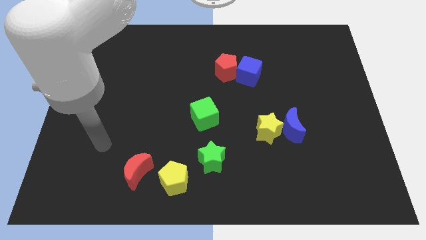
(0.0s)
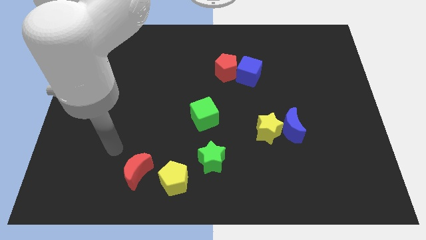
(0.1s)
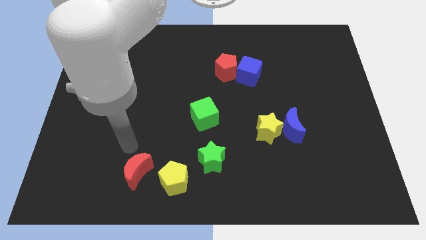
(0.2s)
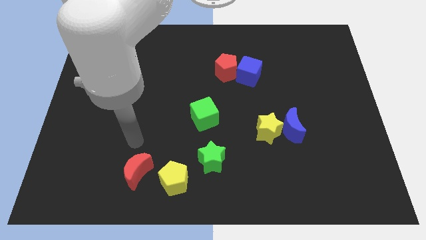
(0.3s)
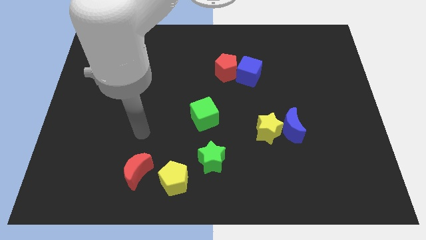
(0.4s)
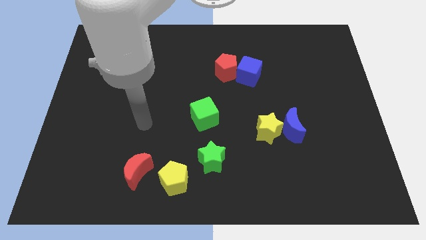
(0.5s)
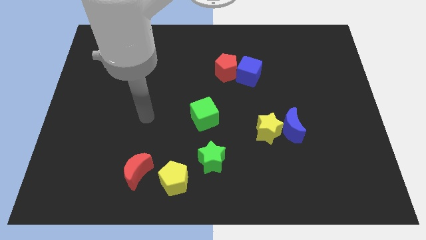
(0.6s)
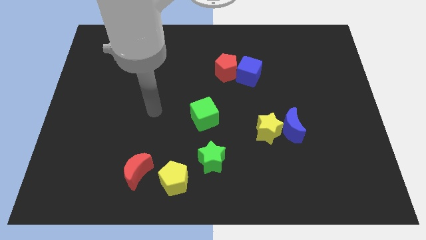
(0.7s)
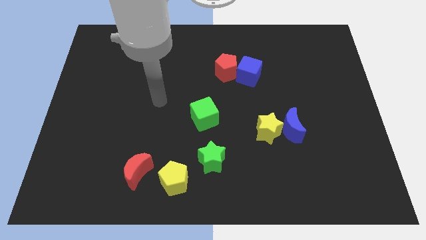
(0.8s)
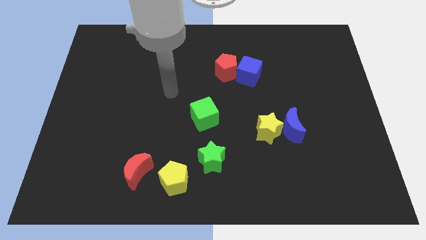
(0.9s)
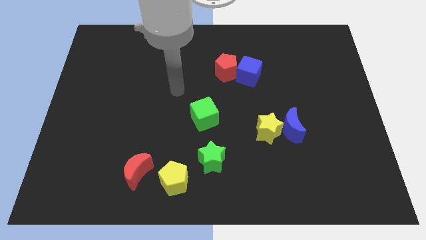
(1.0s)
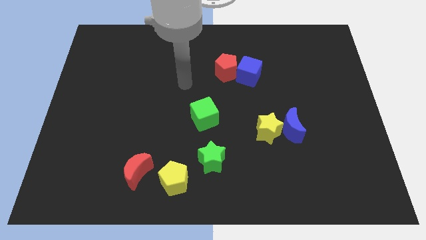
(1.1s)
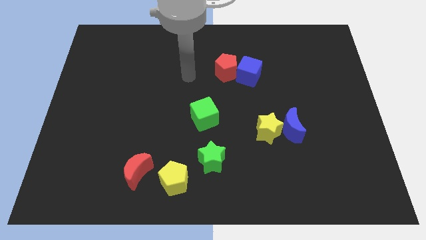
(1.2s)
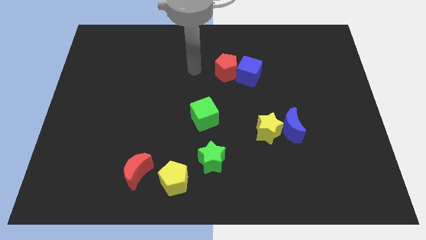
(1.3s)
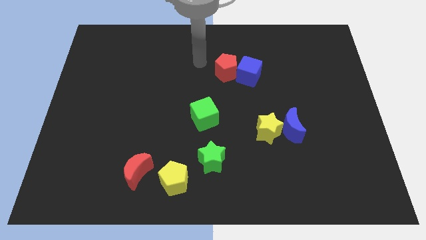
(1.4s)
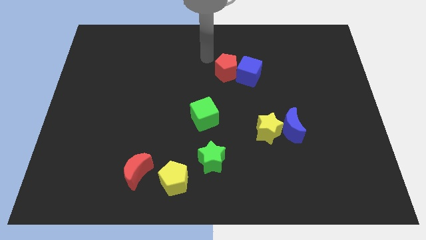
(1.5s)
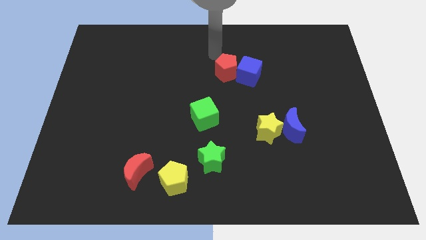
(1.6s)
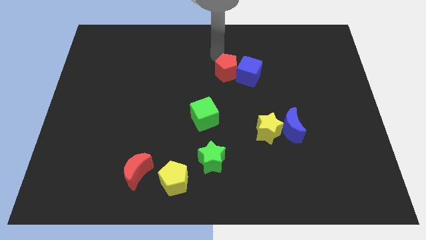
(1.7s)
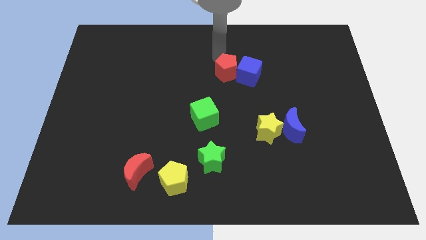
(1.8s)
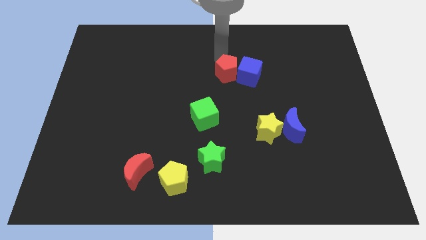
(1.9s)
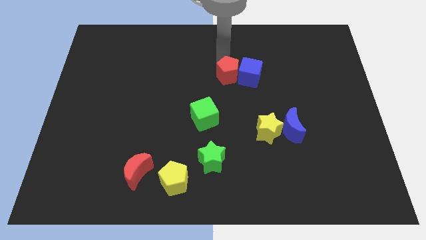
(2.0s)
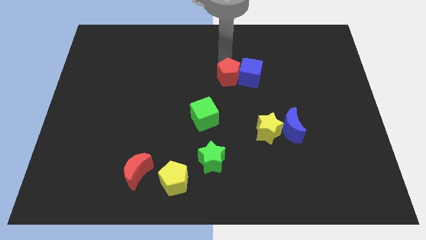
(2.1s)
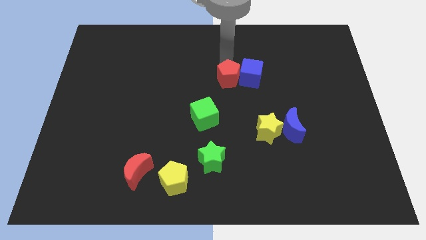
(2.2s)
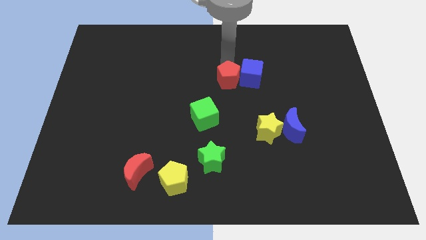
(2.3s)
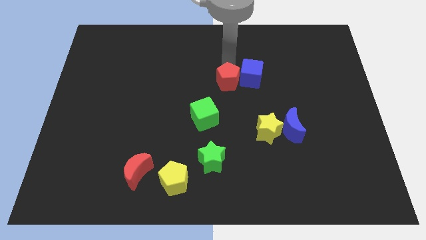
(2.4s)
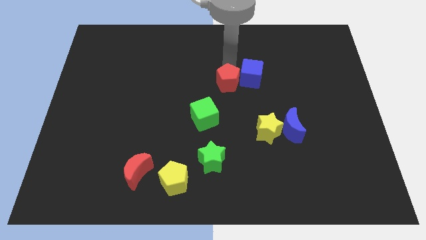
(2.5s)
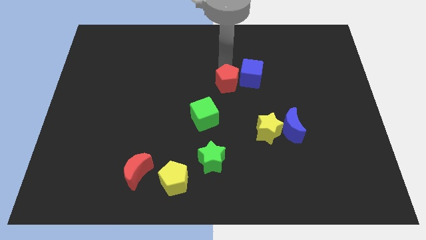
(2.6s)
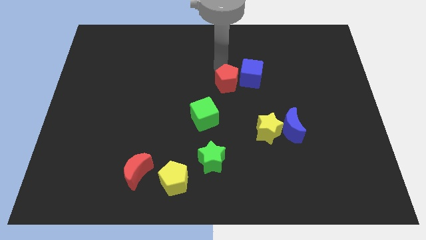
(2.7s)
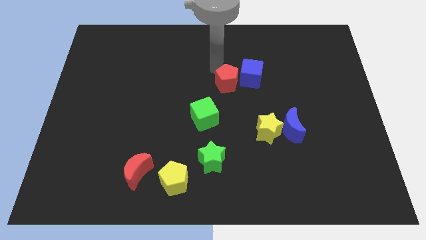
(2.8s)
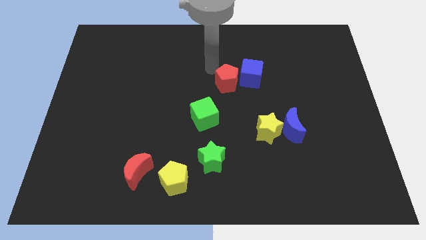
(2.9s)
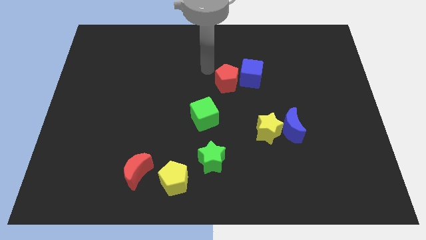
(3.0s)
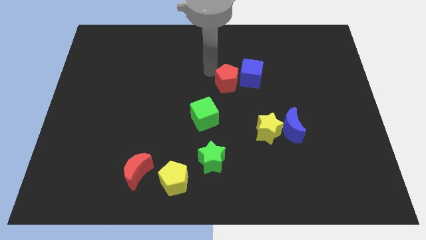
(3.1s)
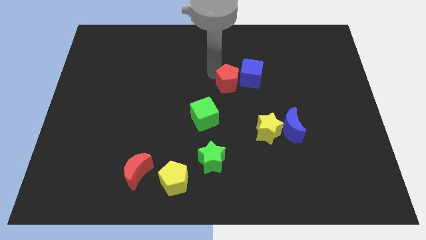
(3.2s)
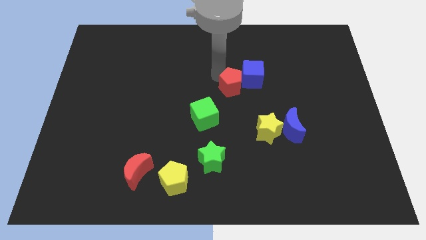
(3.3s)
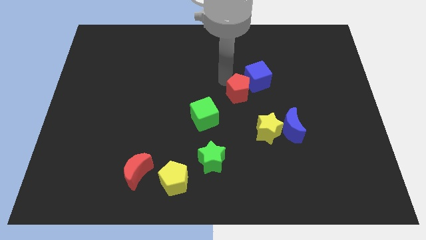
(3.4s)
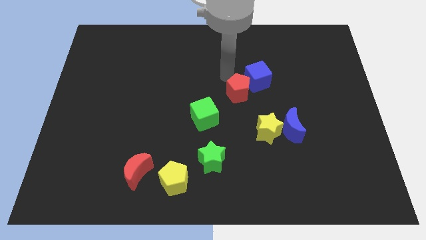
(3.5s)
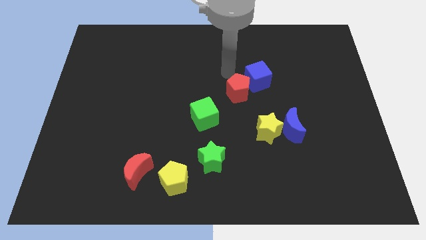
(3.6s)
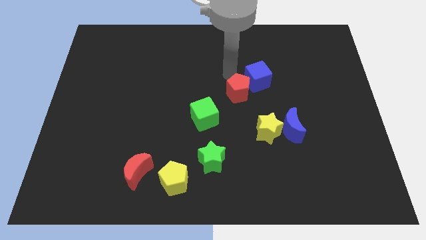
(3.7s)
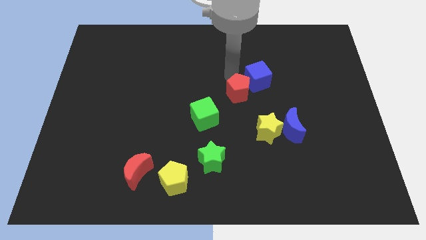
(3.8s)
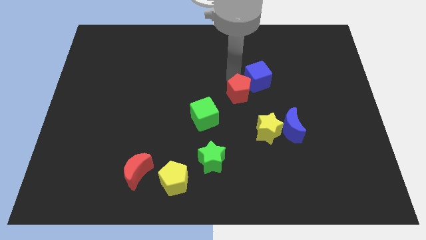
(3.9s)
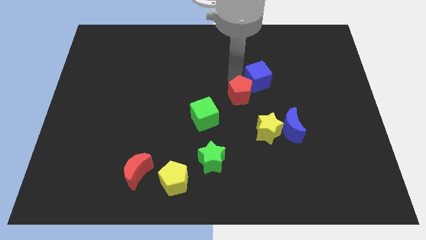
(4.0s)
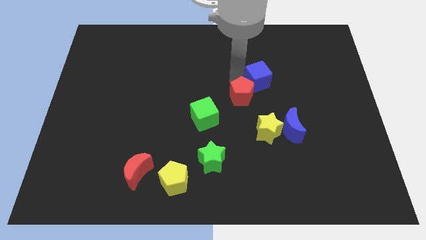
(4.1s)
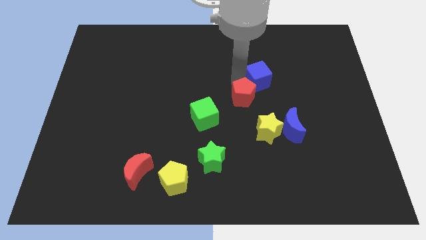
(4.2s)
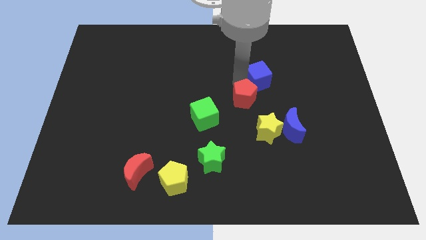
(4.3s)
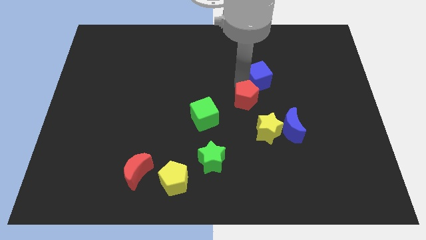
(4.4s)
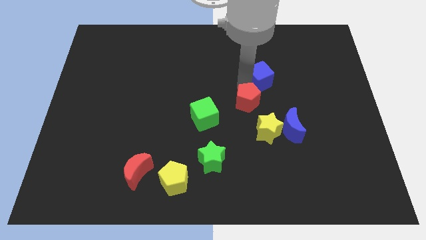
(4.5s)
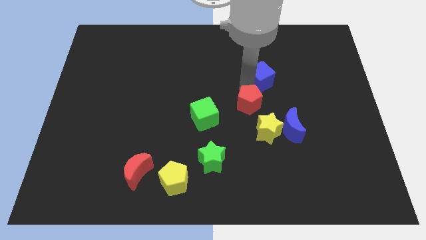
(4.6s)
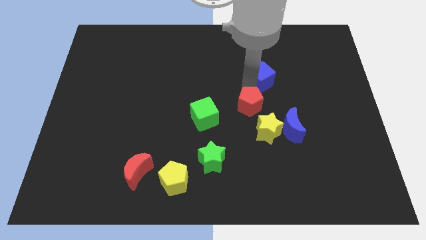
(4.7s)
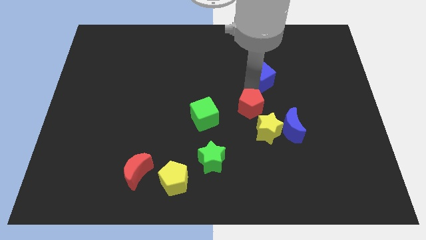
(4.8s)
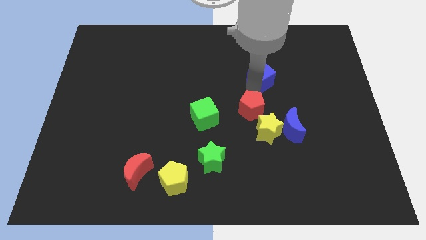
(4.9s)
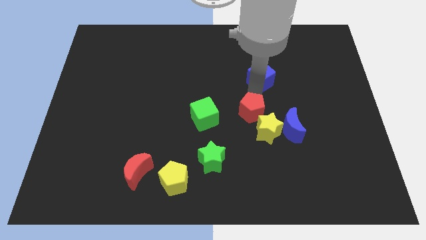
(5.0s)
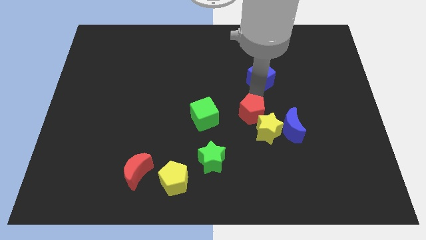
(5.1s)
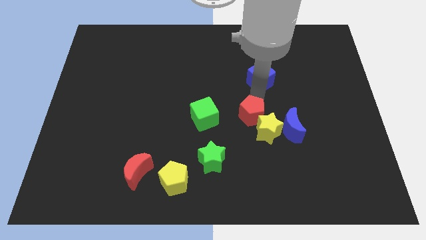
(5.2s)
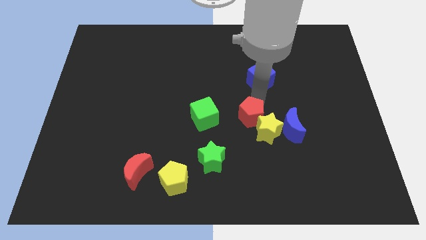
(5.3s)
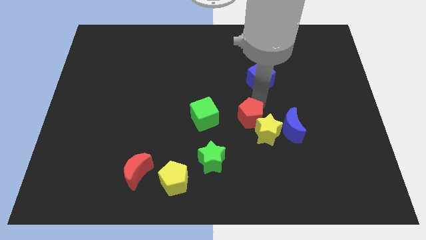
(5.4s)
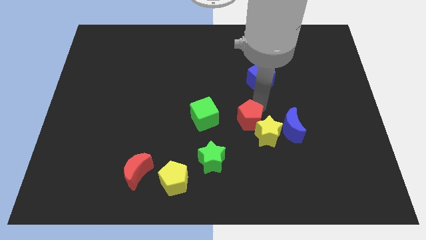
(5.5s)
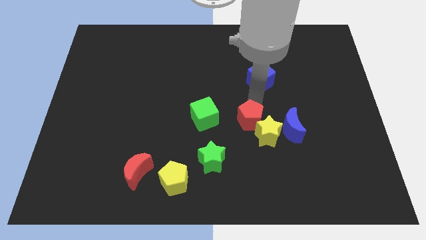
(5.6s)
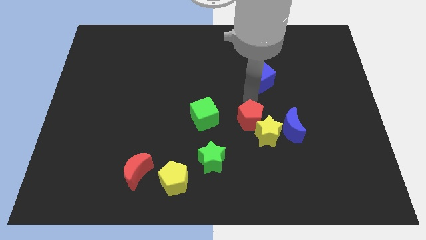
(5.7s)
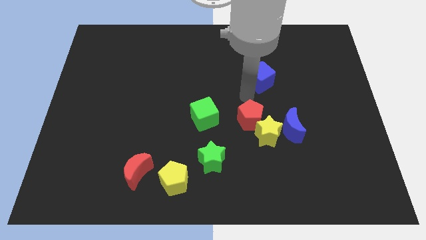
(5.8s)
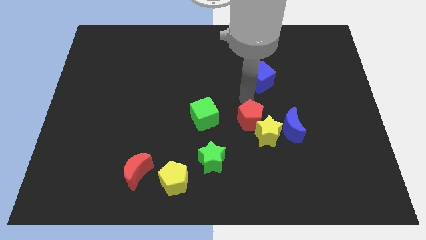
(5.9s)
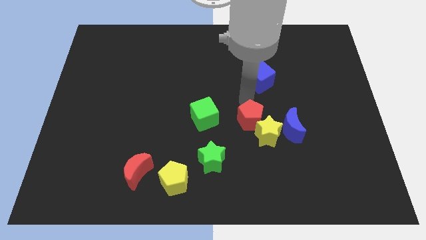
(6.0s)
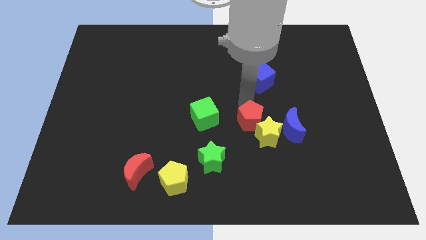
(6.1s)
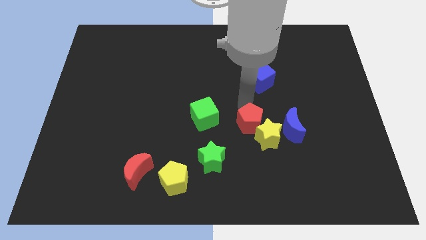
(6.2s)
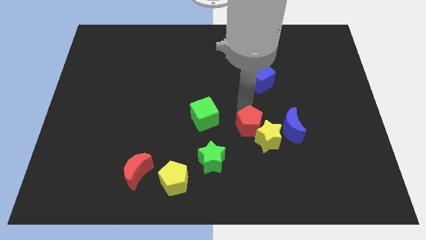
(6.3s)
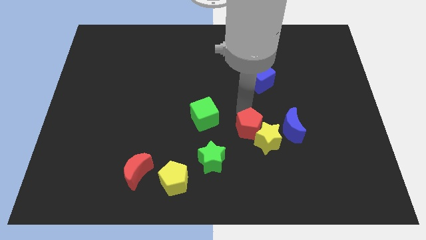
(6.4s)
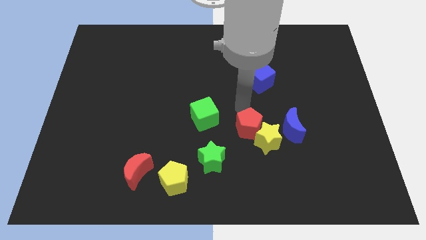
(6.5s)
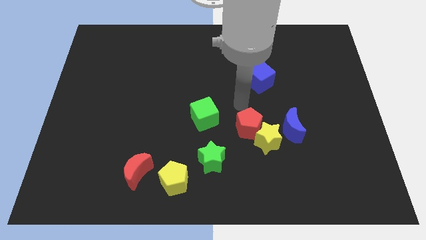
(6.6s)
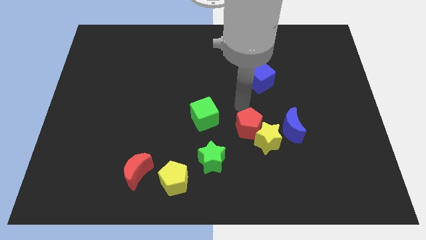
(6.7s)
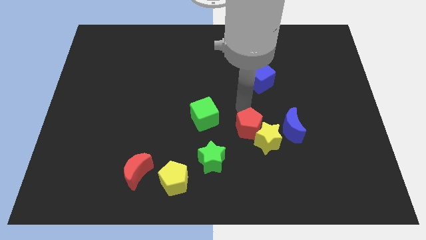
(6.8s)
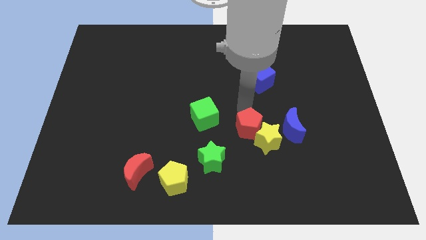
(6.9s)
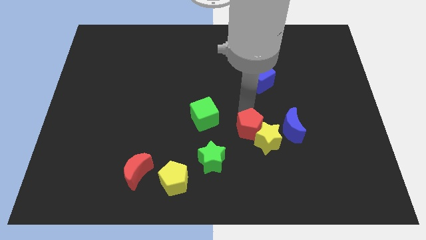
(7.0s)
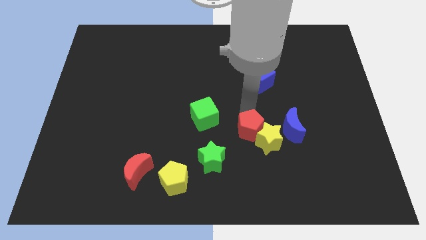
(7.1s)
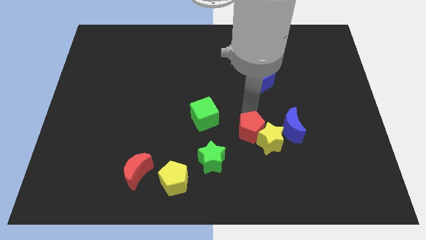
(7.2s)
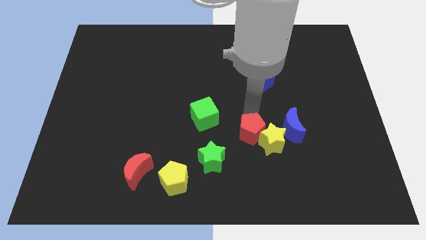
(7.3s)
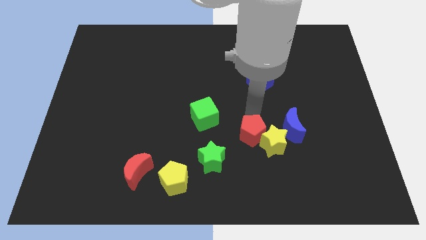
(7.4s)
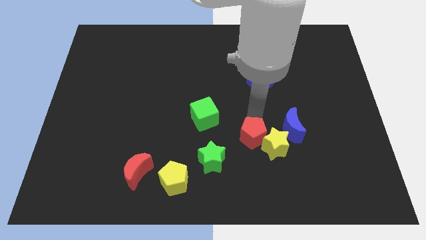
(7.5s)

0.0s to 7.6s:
put the red pentagon to the bottom left of the blue moon
